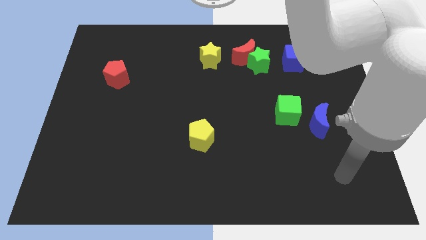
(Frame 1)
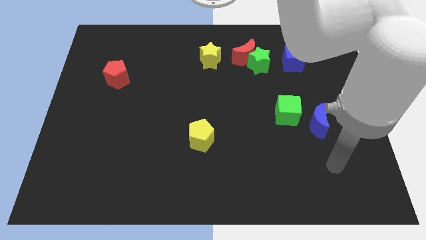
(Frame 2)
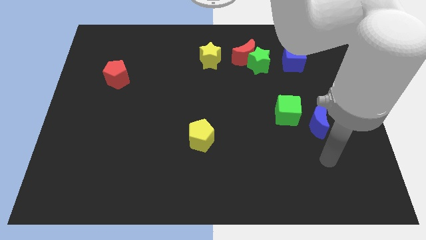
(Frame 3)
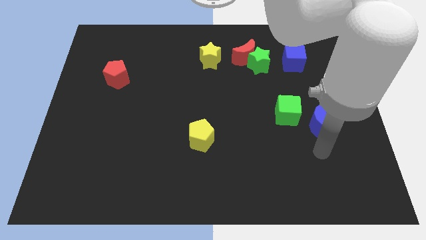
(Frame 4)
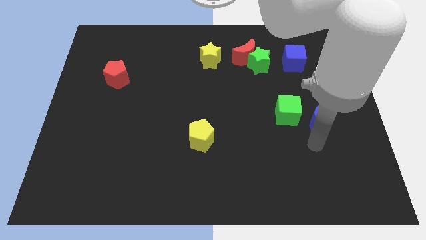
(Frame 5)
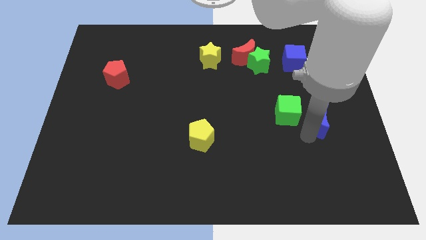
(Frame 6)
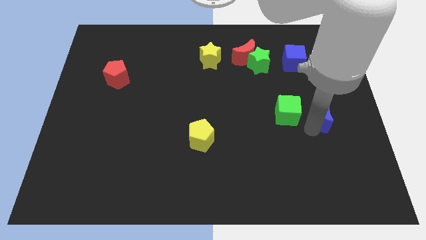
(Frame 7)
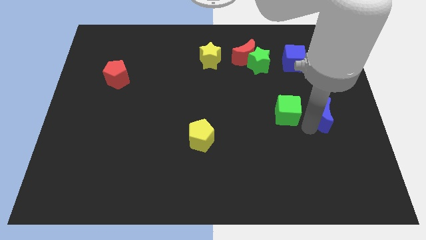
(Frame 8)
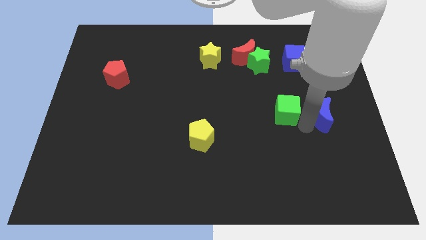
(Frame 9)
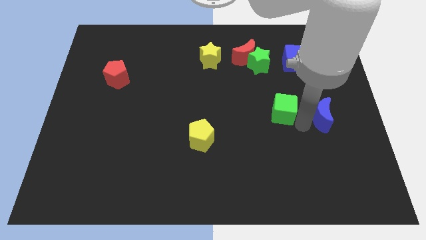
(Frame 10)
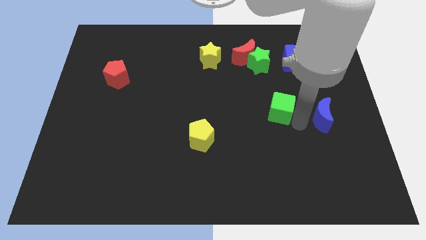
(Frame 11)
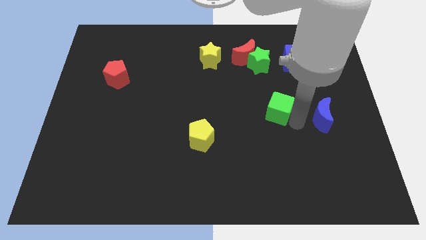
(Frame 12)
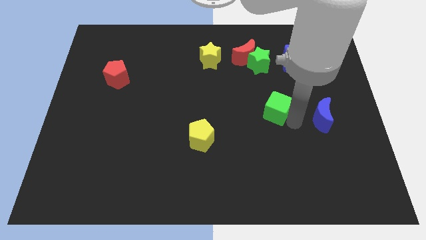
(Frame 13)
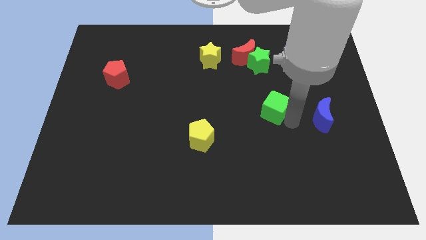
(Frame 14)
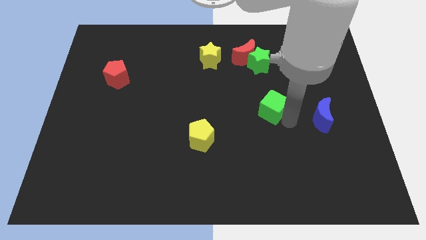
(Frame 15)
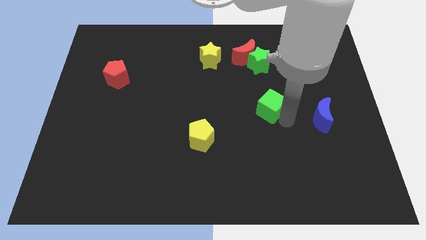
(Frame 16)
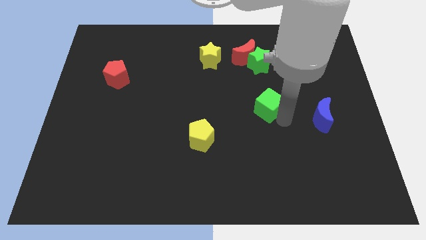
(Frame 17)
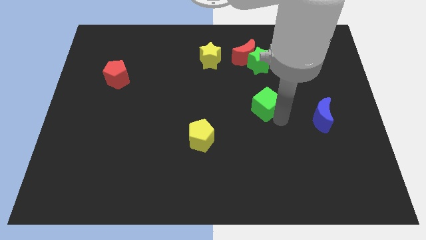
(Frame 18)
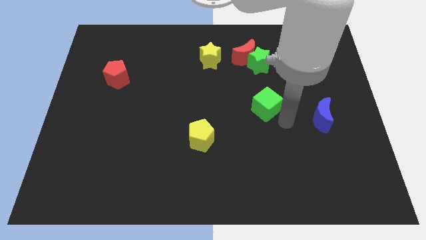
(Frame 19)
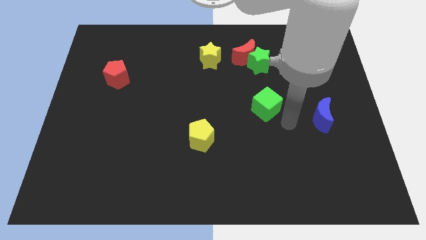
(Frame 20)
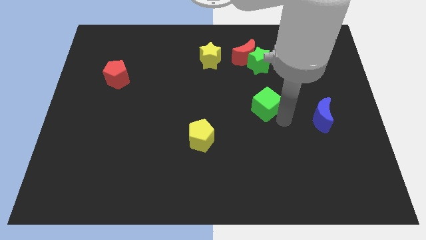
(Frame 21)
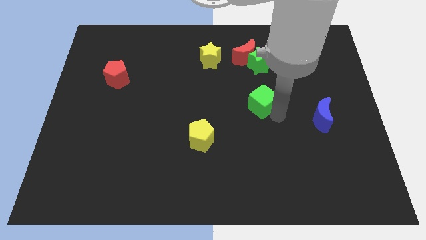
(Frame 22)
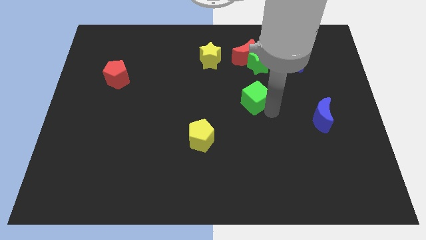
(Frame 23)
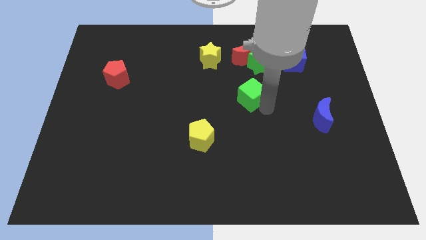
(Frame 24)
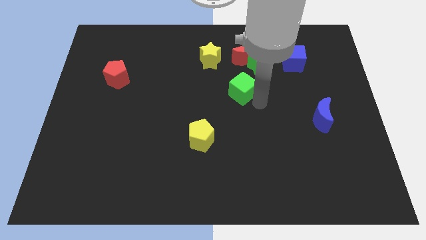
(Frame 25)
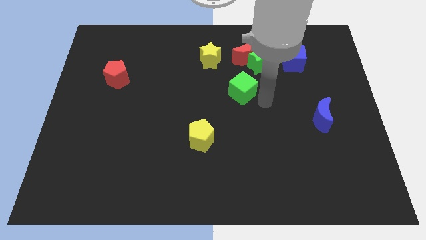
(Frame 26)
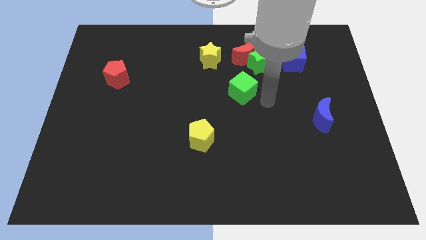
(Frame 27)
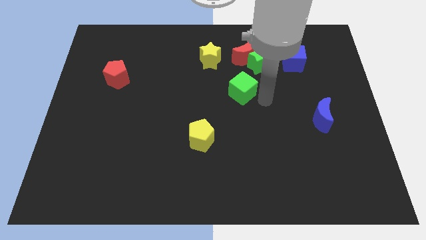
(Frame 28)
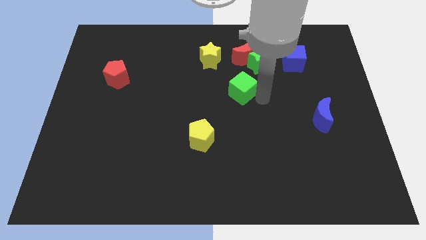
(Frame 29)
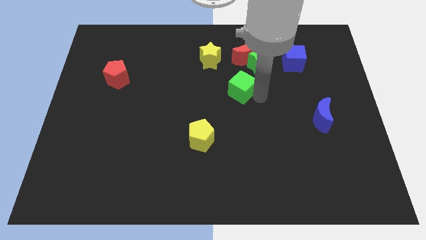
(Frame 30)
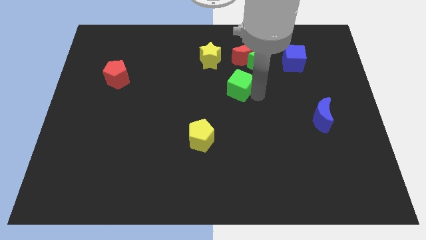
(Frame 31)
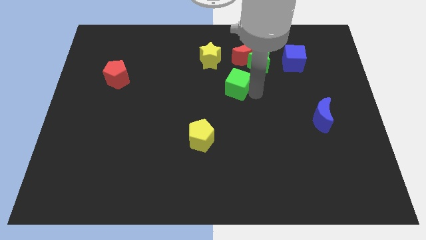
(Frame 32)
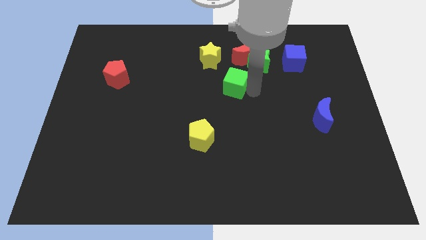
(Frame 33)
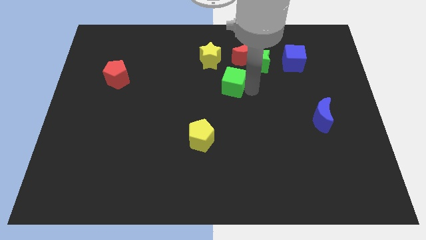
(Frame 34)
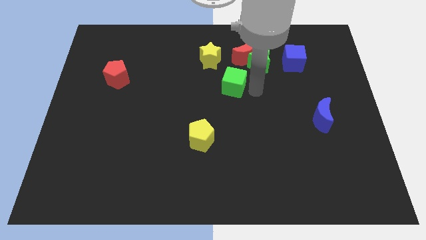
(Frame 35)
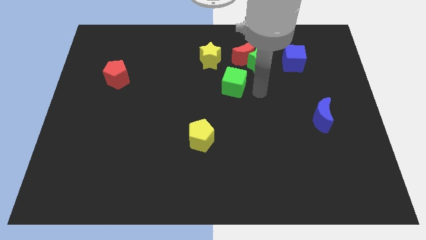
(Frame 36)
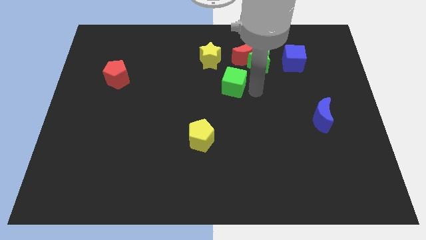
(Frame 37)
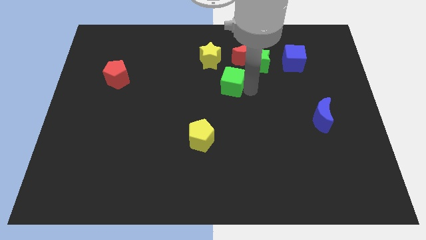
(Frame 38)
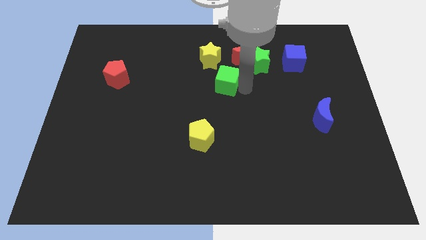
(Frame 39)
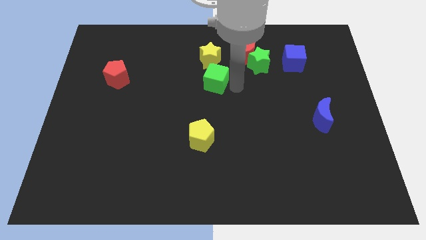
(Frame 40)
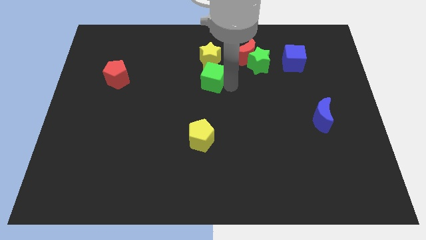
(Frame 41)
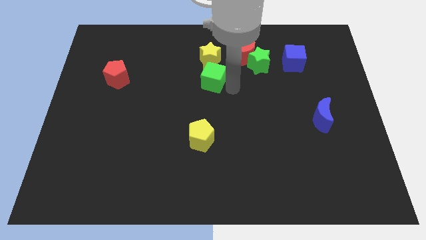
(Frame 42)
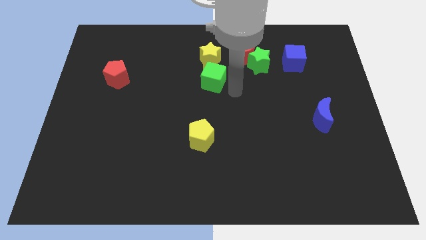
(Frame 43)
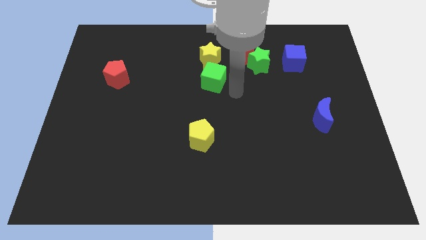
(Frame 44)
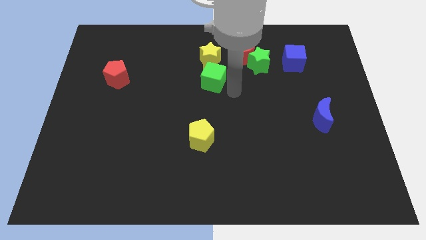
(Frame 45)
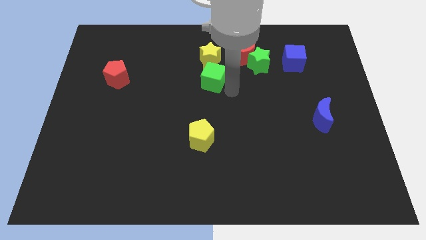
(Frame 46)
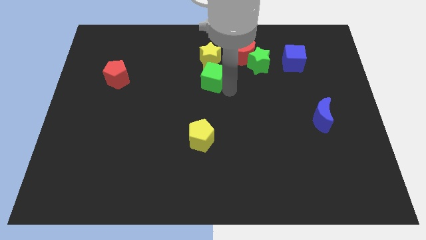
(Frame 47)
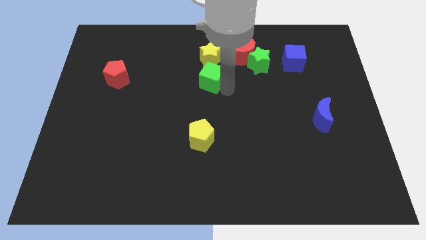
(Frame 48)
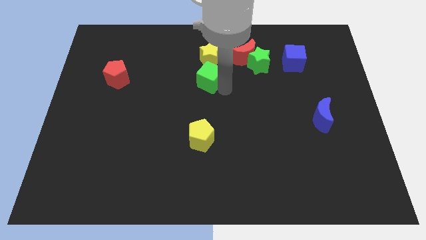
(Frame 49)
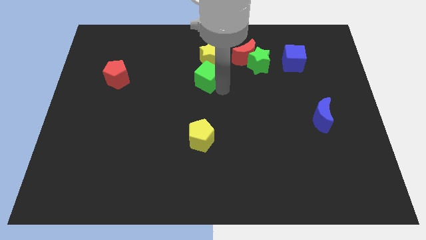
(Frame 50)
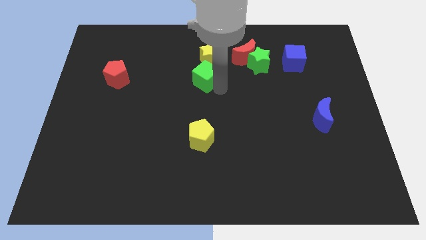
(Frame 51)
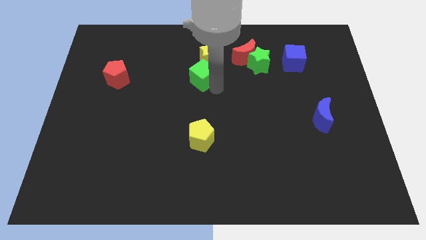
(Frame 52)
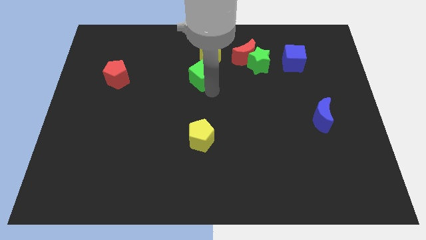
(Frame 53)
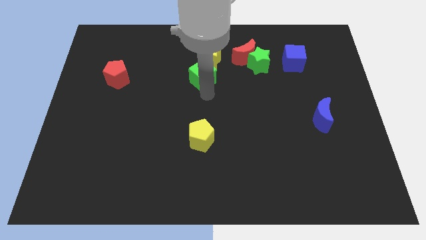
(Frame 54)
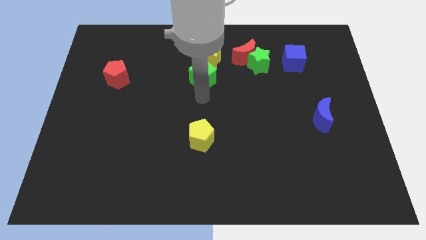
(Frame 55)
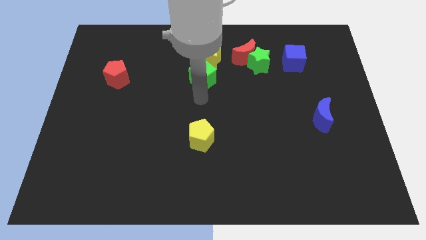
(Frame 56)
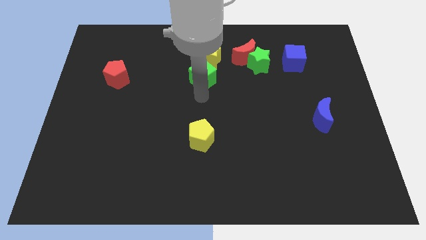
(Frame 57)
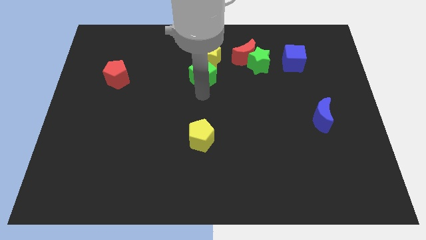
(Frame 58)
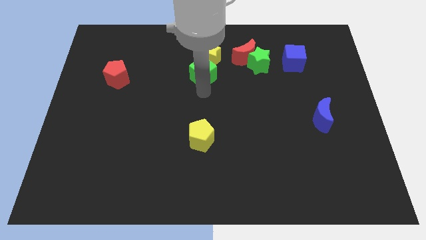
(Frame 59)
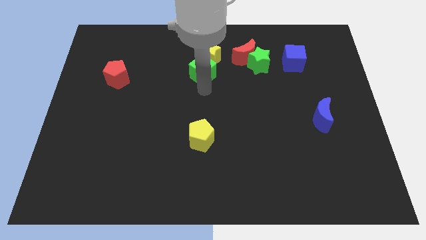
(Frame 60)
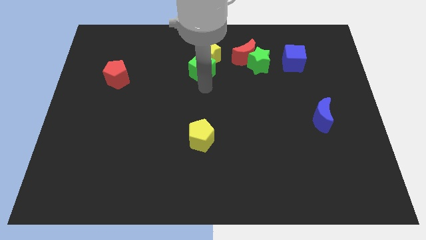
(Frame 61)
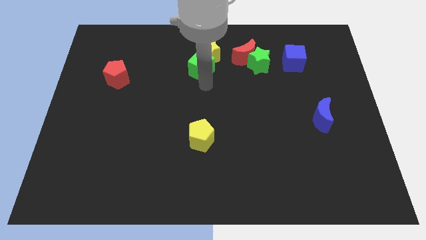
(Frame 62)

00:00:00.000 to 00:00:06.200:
push the green cube to the left side of the red moon

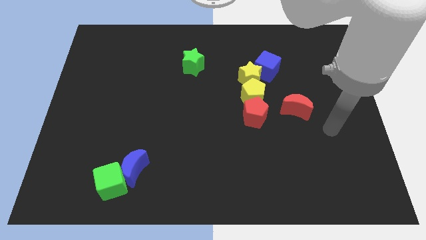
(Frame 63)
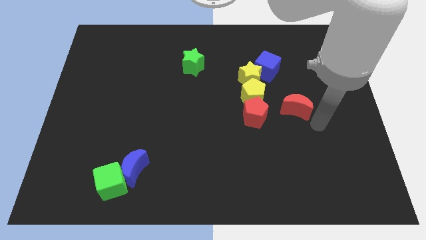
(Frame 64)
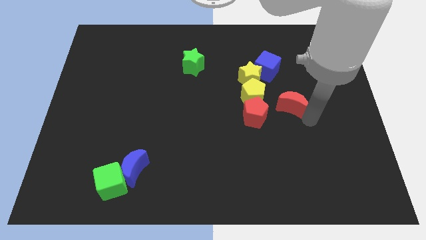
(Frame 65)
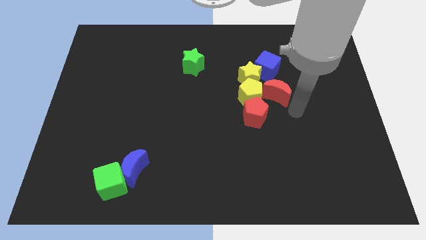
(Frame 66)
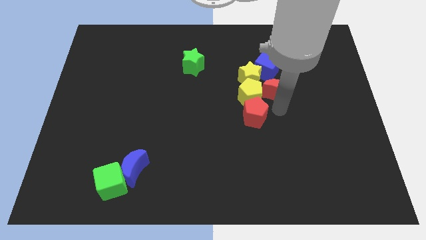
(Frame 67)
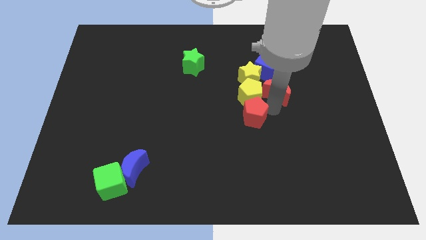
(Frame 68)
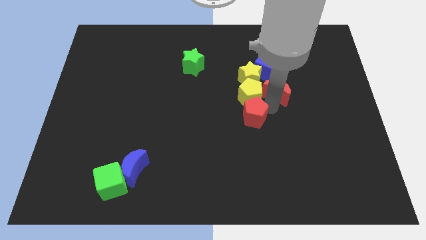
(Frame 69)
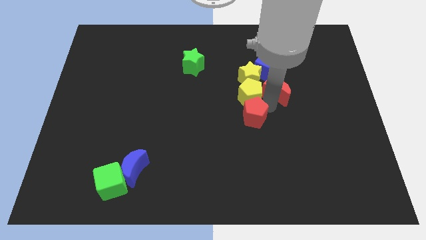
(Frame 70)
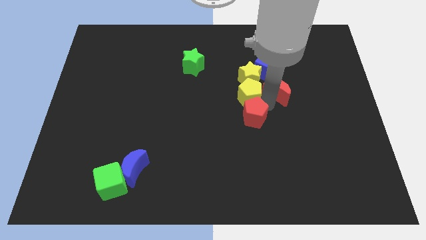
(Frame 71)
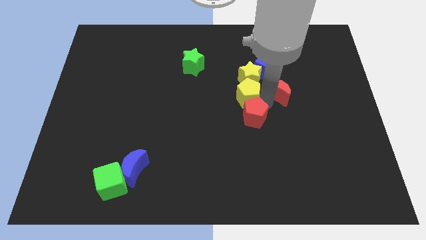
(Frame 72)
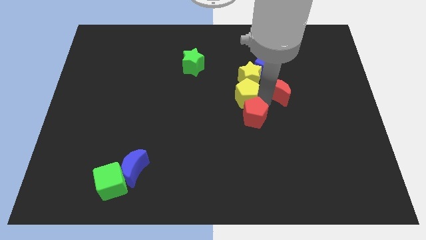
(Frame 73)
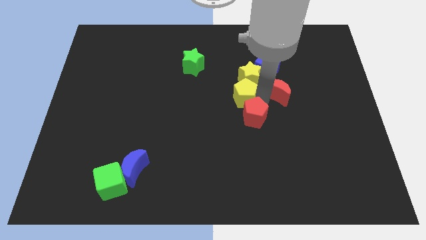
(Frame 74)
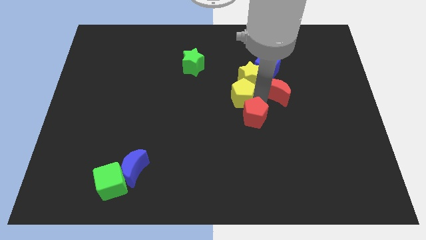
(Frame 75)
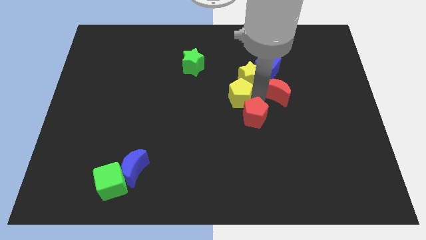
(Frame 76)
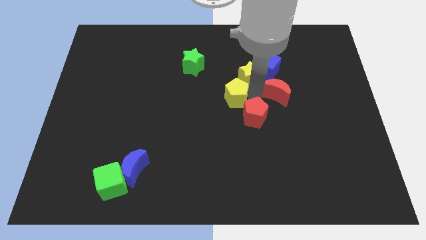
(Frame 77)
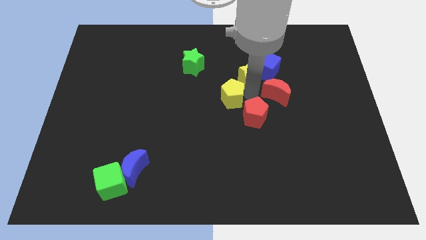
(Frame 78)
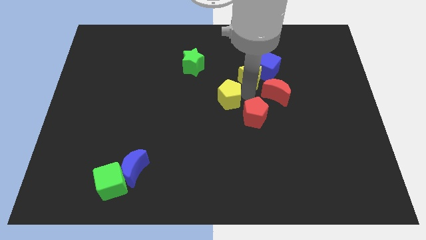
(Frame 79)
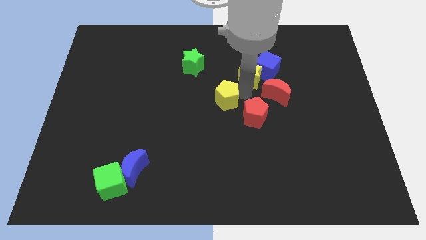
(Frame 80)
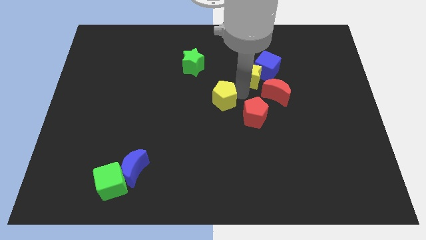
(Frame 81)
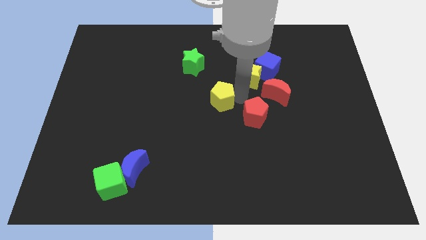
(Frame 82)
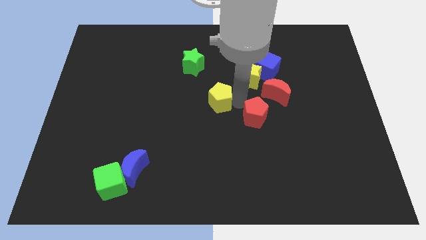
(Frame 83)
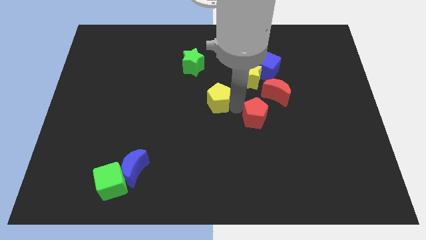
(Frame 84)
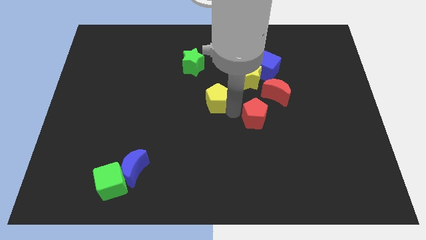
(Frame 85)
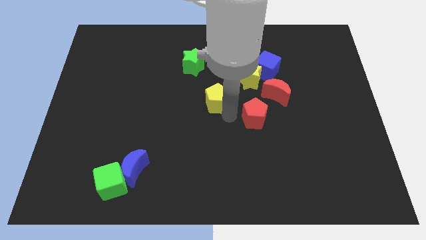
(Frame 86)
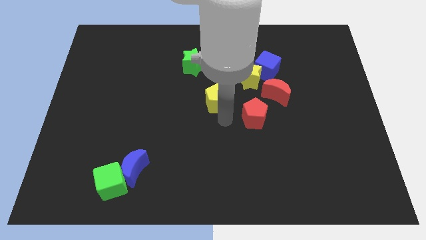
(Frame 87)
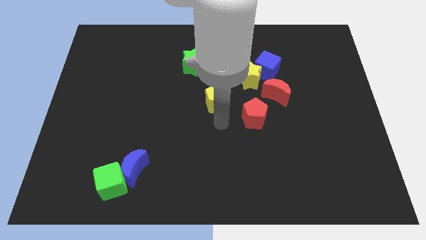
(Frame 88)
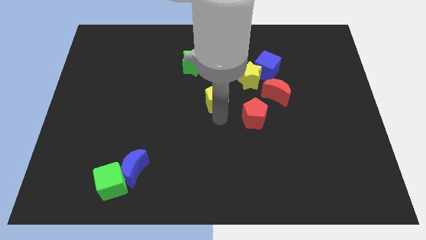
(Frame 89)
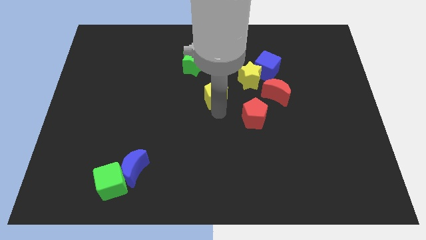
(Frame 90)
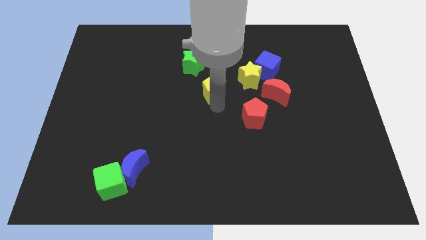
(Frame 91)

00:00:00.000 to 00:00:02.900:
push the yellow pentagon to the bottom right of the green star
